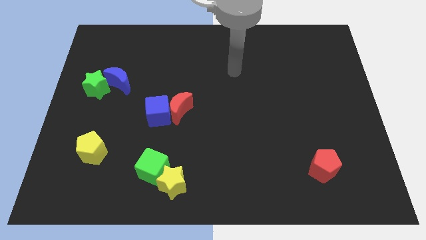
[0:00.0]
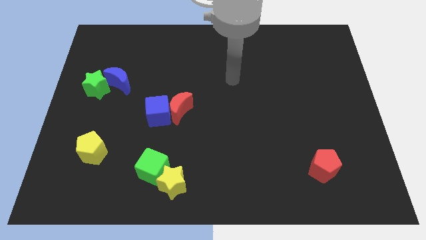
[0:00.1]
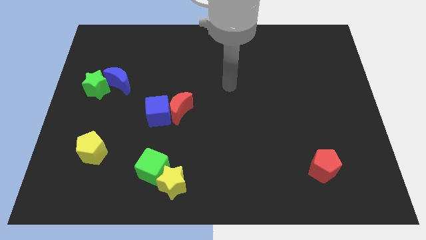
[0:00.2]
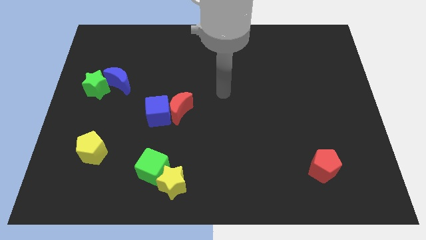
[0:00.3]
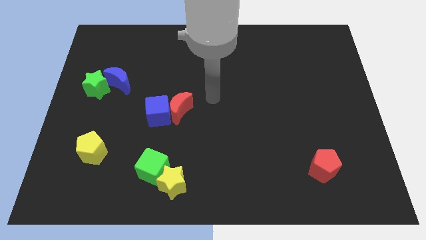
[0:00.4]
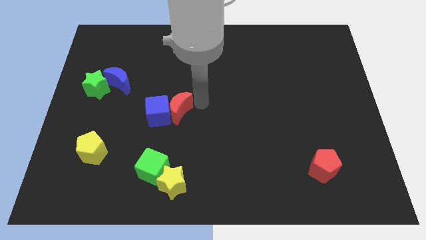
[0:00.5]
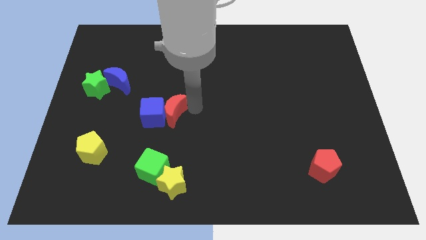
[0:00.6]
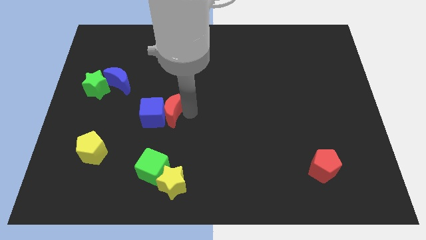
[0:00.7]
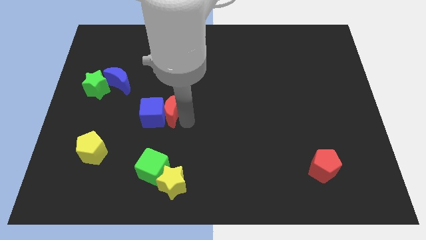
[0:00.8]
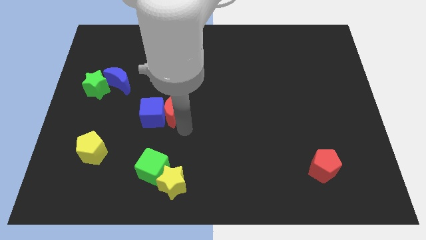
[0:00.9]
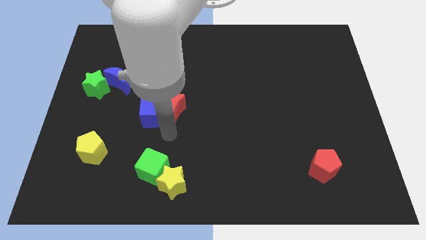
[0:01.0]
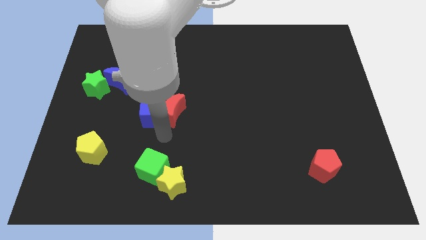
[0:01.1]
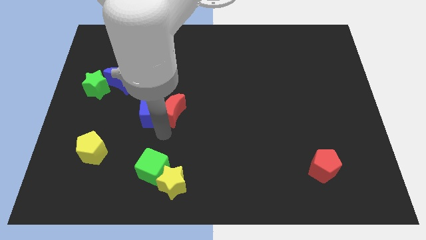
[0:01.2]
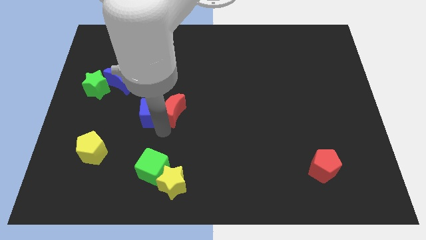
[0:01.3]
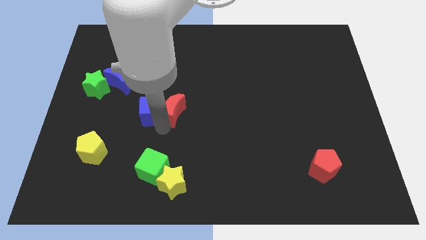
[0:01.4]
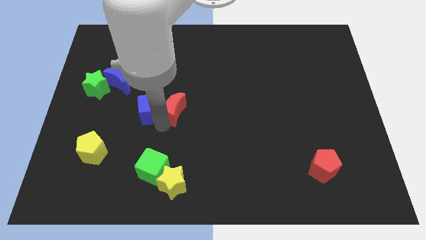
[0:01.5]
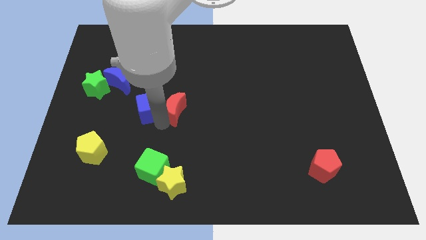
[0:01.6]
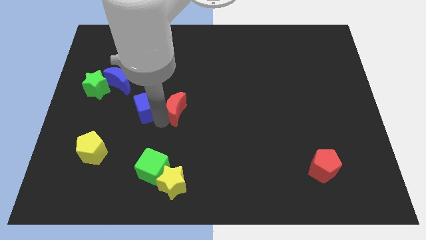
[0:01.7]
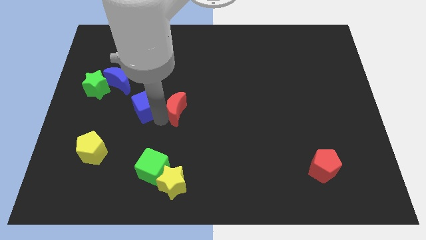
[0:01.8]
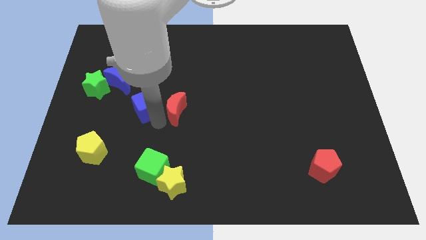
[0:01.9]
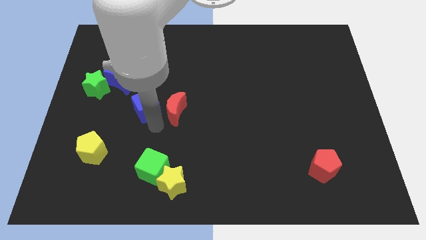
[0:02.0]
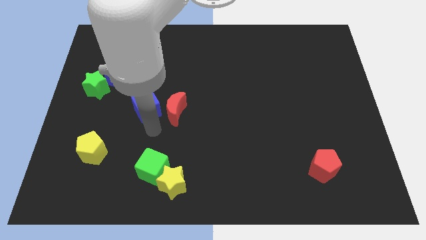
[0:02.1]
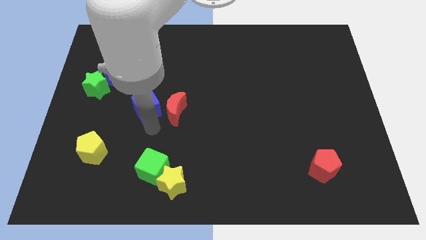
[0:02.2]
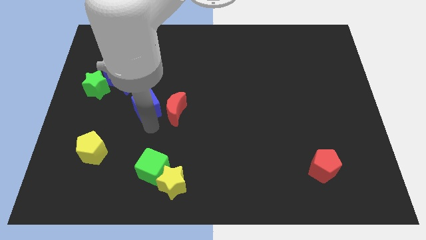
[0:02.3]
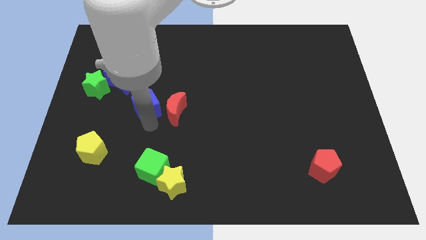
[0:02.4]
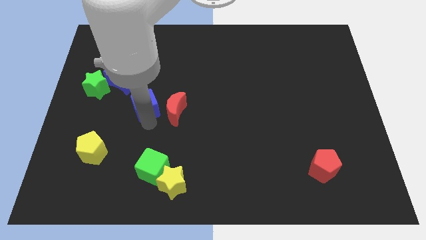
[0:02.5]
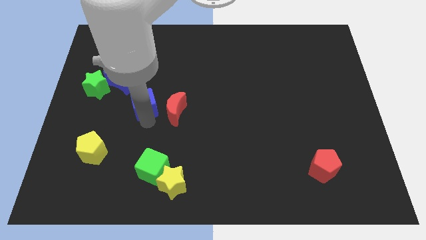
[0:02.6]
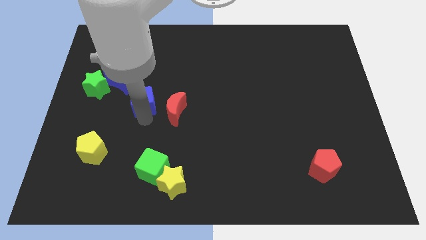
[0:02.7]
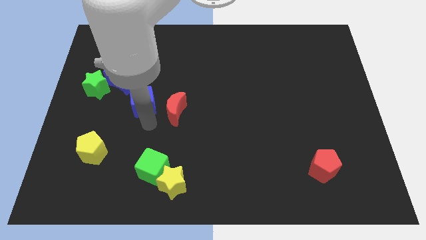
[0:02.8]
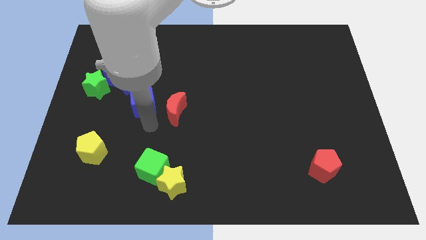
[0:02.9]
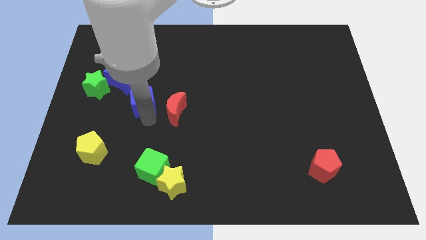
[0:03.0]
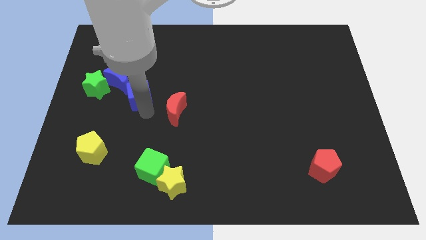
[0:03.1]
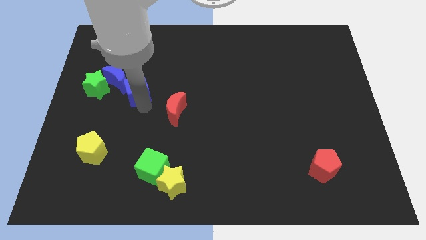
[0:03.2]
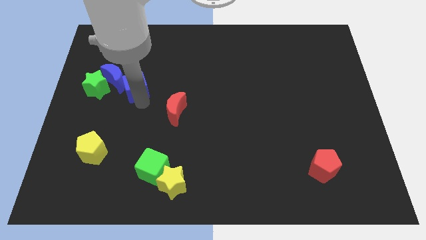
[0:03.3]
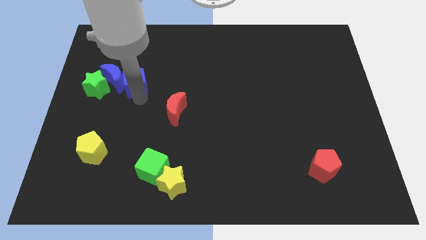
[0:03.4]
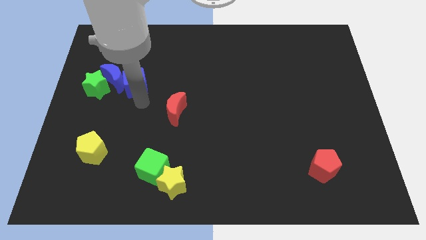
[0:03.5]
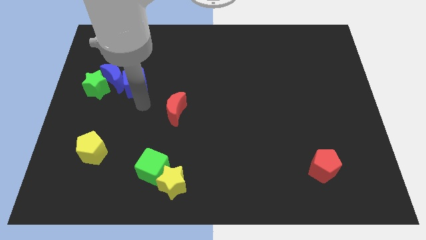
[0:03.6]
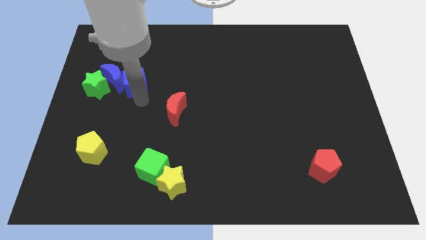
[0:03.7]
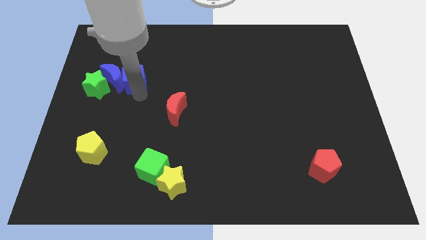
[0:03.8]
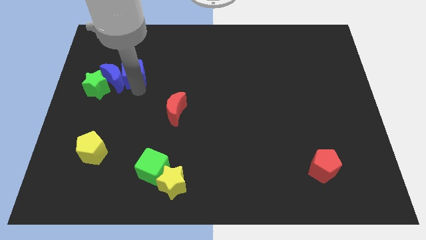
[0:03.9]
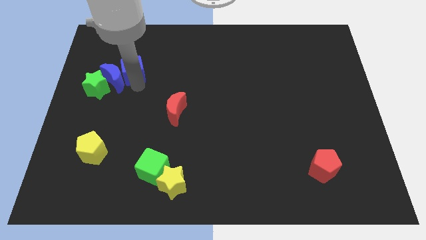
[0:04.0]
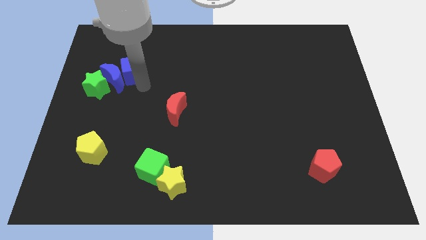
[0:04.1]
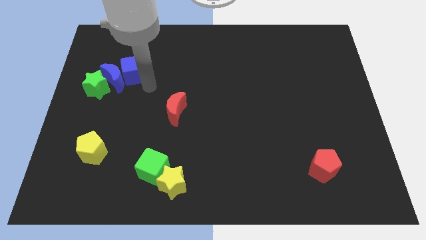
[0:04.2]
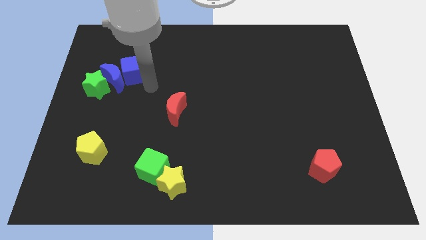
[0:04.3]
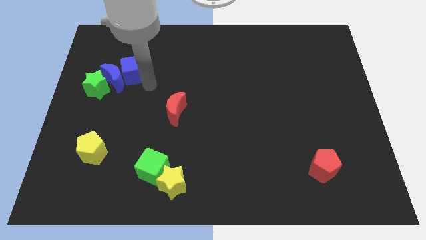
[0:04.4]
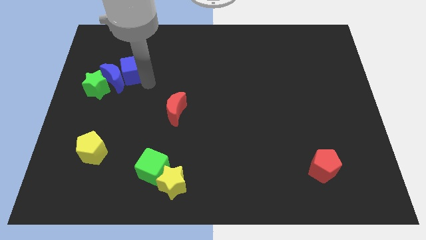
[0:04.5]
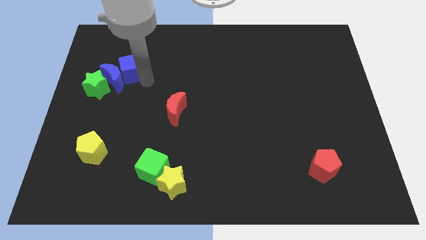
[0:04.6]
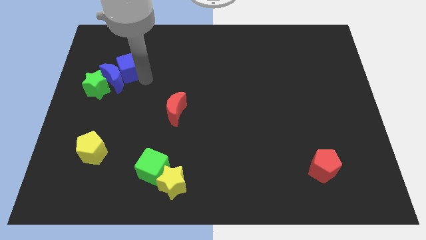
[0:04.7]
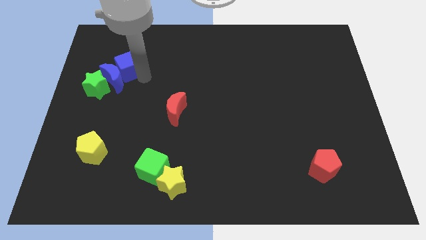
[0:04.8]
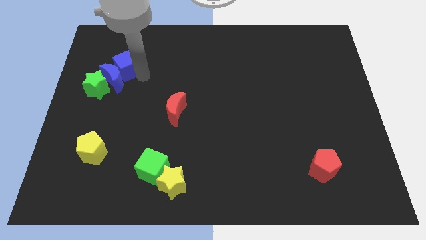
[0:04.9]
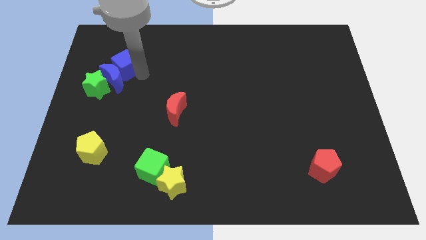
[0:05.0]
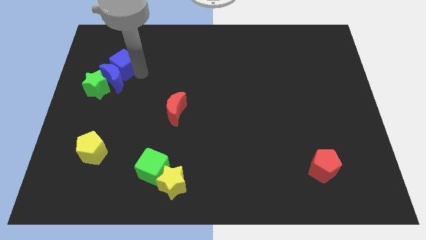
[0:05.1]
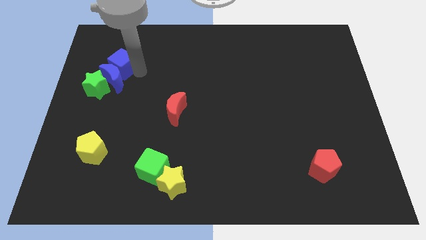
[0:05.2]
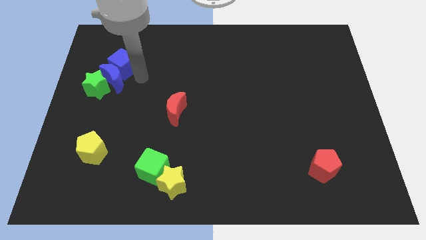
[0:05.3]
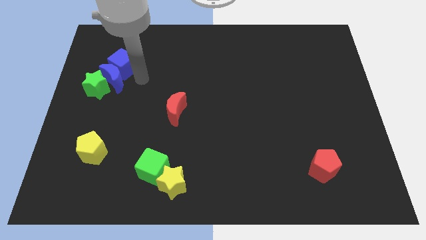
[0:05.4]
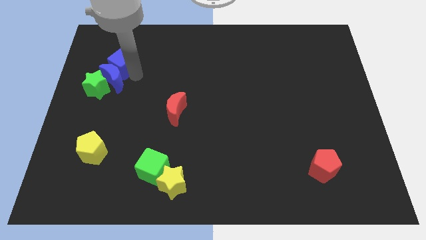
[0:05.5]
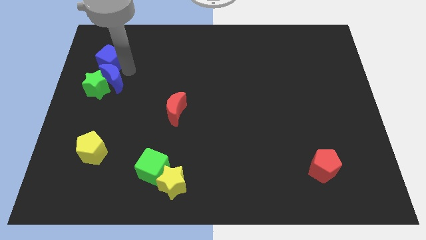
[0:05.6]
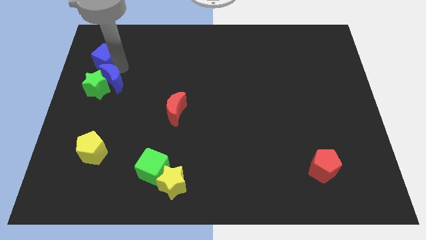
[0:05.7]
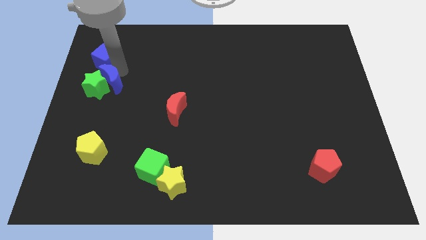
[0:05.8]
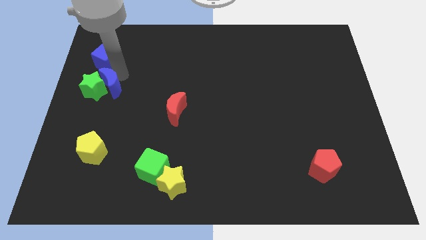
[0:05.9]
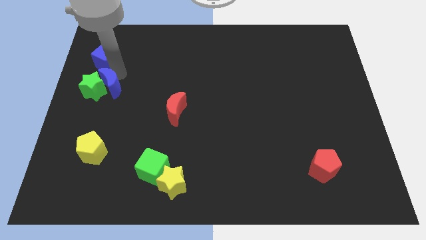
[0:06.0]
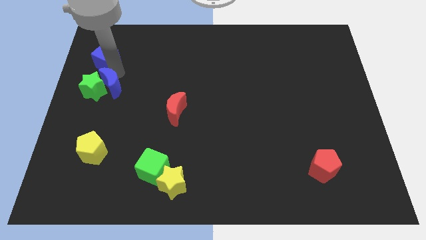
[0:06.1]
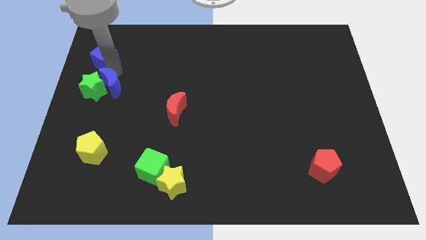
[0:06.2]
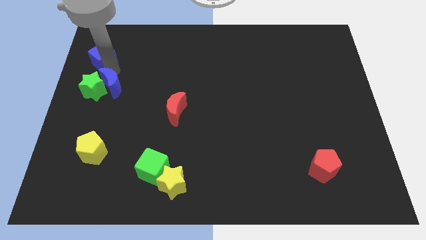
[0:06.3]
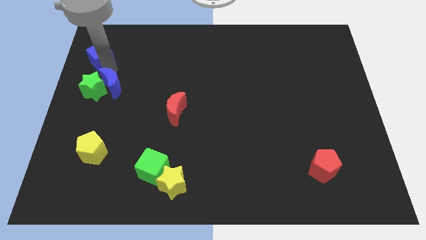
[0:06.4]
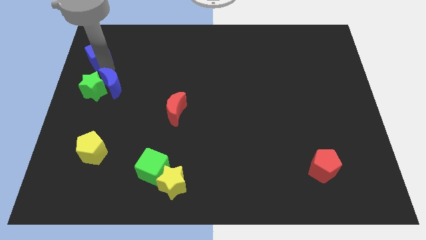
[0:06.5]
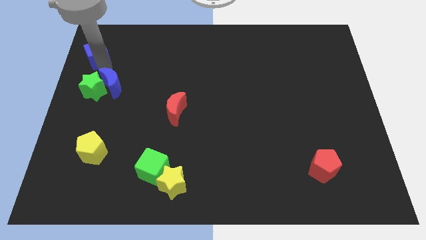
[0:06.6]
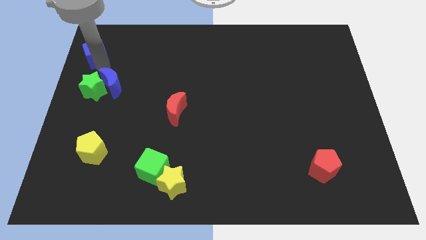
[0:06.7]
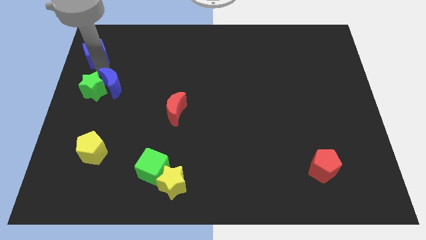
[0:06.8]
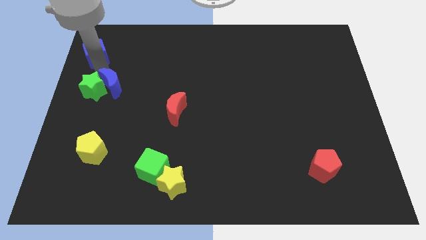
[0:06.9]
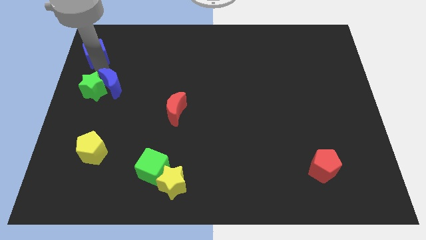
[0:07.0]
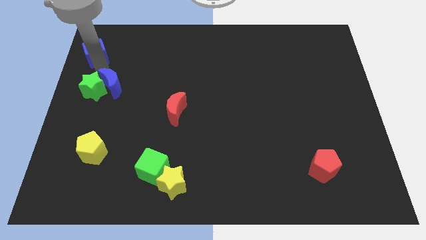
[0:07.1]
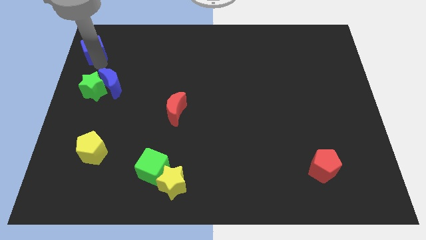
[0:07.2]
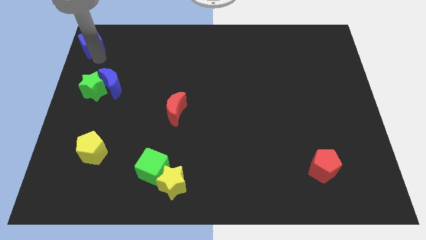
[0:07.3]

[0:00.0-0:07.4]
put the blue cube to the top left corner
